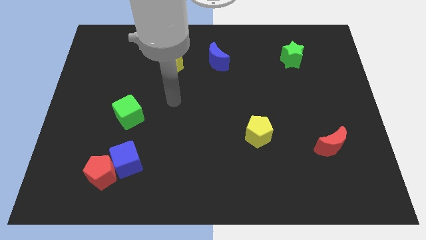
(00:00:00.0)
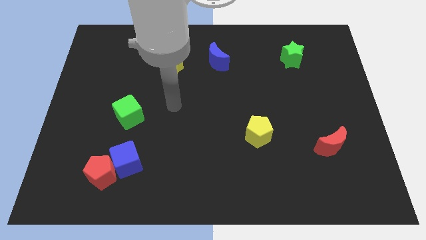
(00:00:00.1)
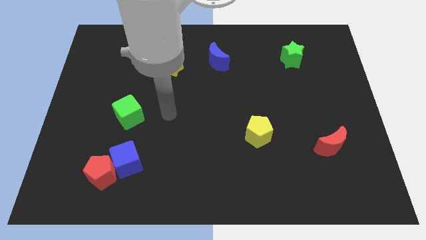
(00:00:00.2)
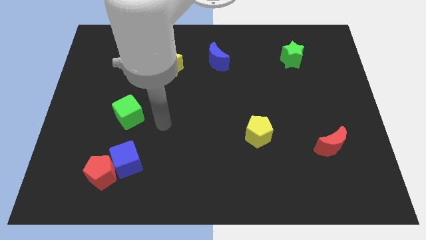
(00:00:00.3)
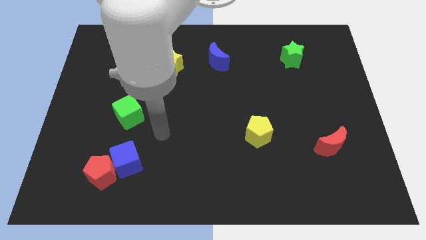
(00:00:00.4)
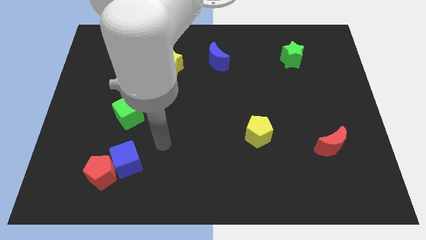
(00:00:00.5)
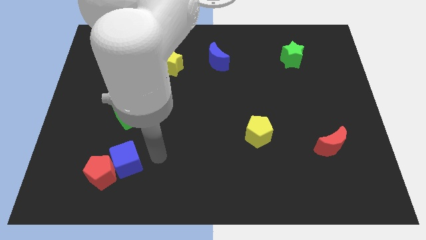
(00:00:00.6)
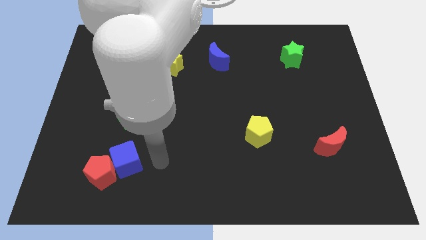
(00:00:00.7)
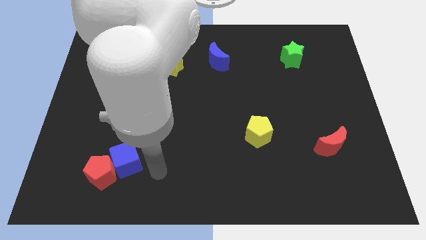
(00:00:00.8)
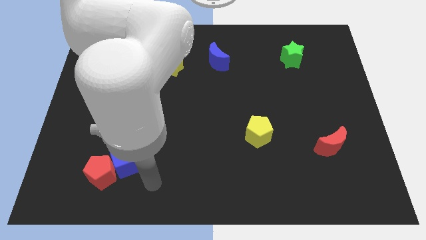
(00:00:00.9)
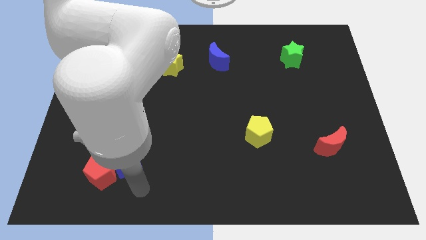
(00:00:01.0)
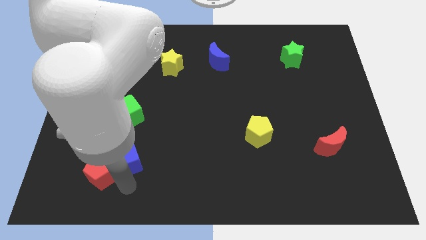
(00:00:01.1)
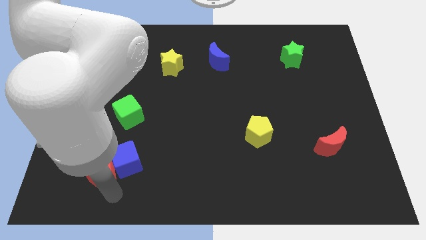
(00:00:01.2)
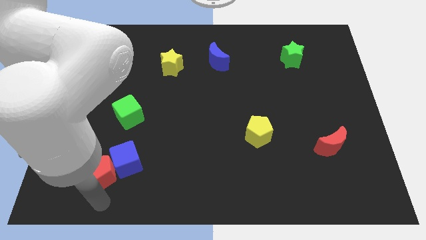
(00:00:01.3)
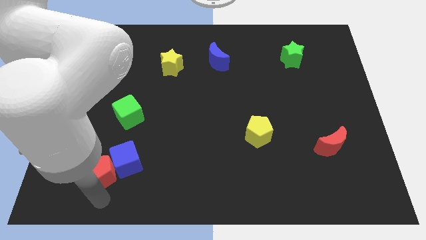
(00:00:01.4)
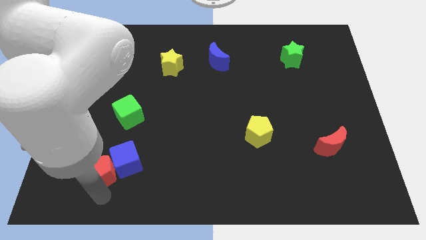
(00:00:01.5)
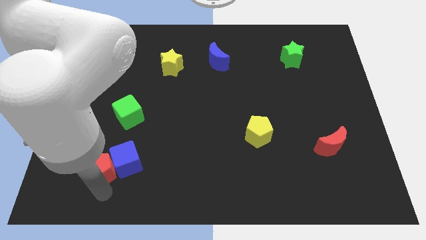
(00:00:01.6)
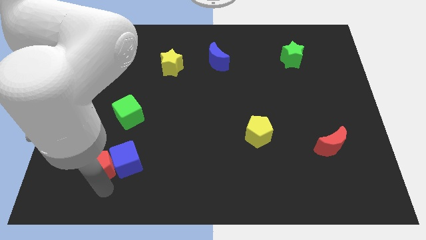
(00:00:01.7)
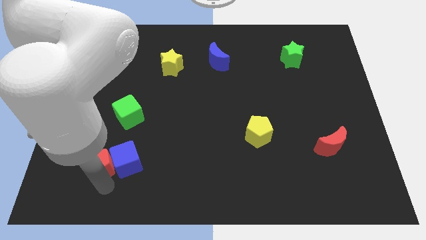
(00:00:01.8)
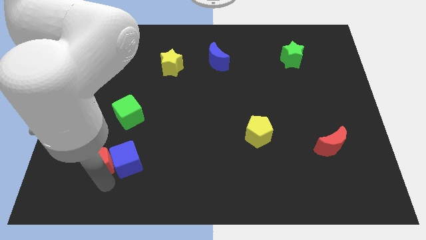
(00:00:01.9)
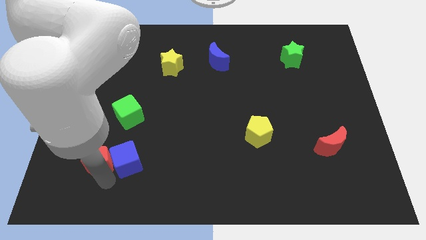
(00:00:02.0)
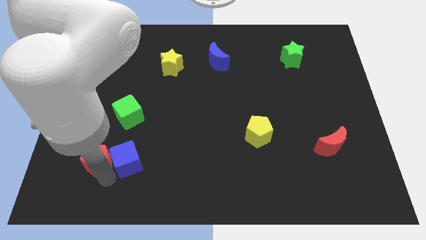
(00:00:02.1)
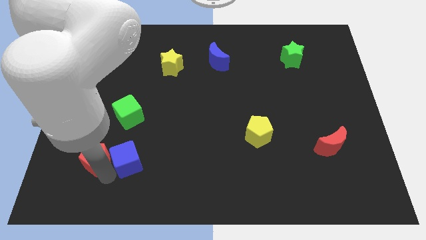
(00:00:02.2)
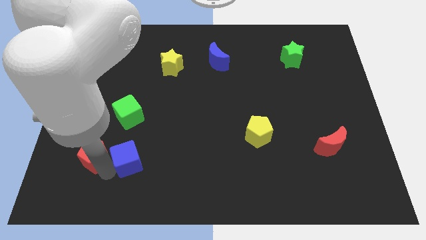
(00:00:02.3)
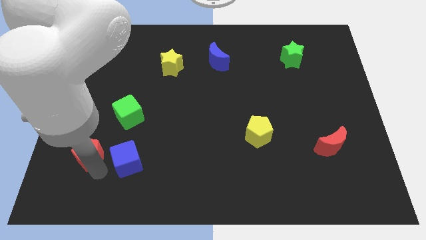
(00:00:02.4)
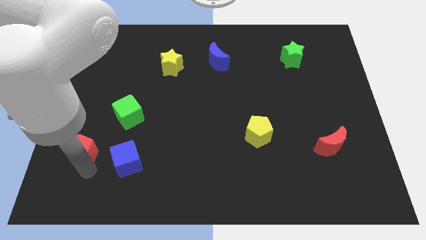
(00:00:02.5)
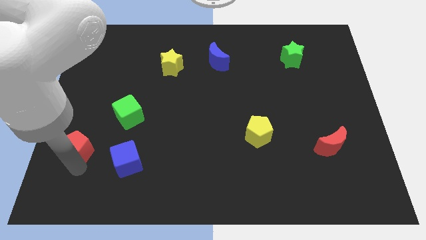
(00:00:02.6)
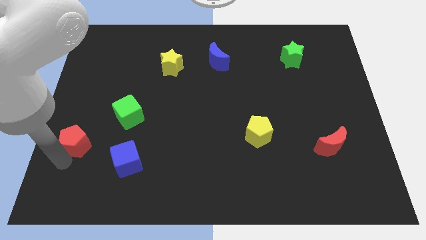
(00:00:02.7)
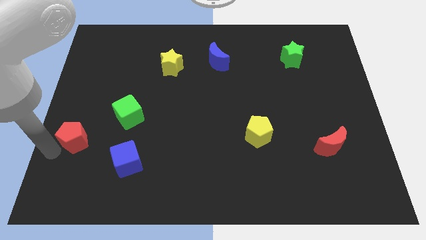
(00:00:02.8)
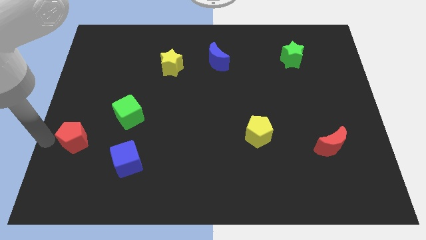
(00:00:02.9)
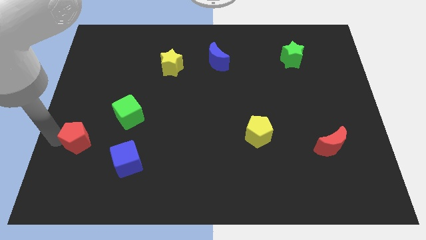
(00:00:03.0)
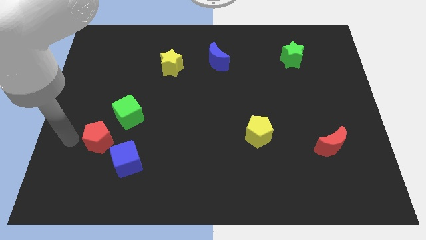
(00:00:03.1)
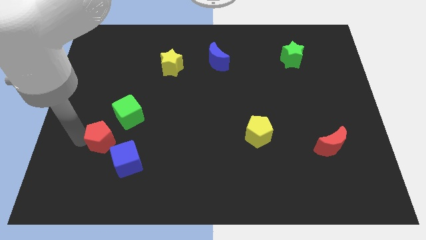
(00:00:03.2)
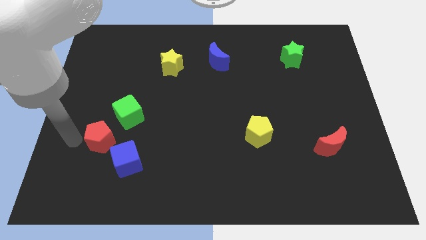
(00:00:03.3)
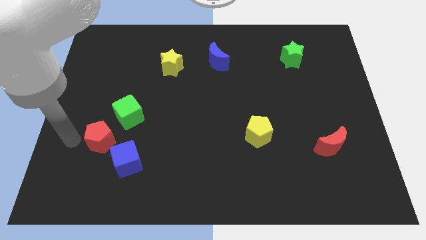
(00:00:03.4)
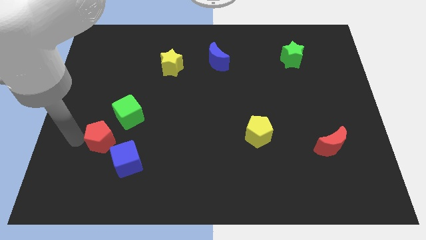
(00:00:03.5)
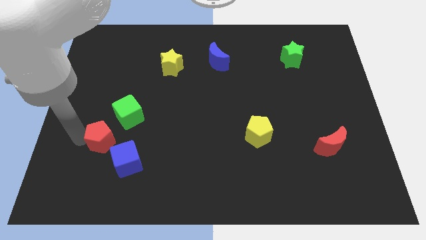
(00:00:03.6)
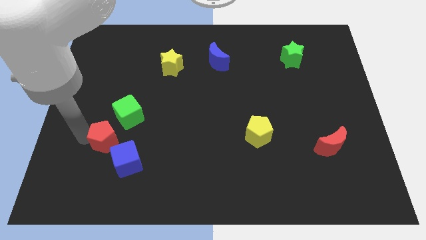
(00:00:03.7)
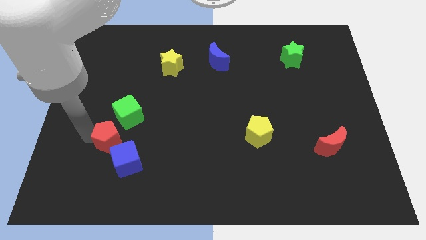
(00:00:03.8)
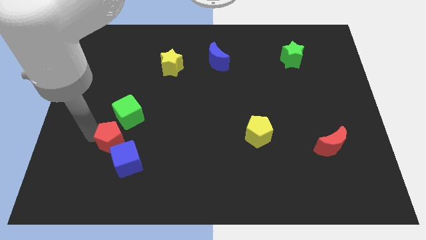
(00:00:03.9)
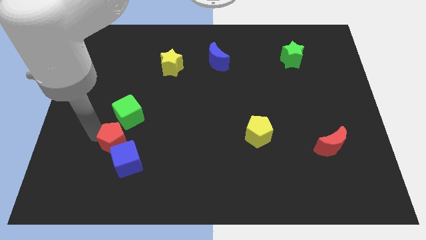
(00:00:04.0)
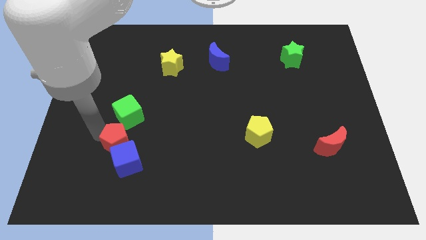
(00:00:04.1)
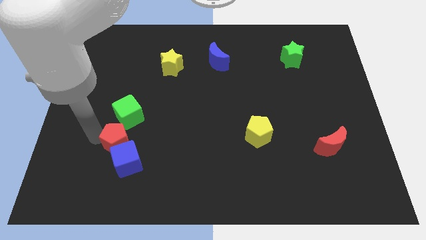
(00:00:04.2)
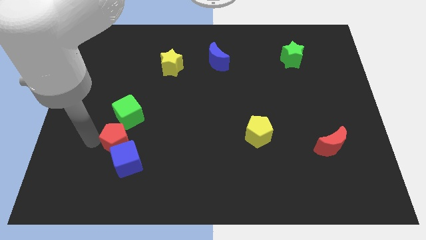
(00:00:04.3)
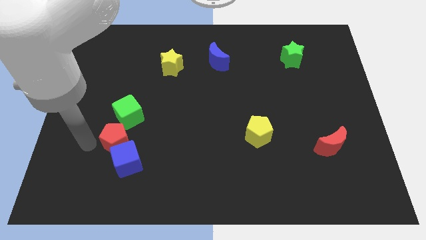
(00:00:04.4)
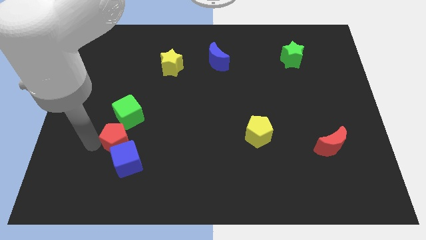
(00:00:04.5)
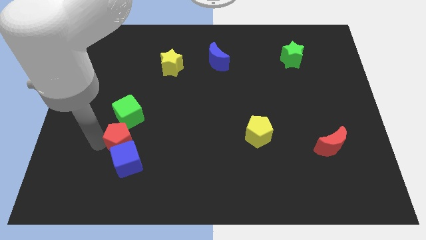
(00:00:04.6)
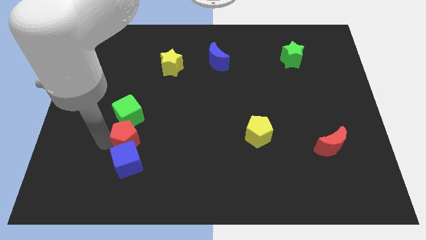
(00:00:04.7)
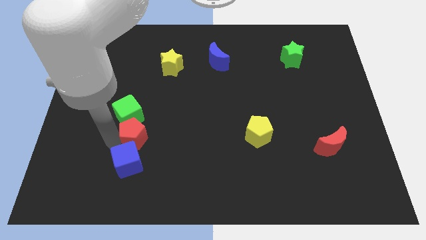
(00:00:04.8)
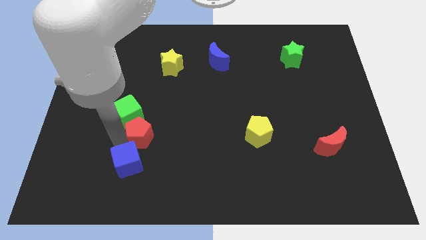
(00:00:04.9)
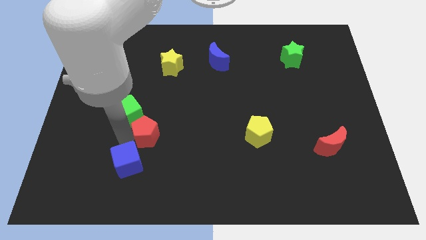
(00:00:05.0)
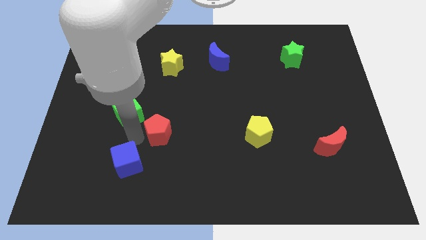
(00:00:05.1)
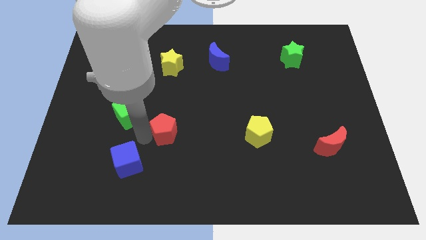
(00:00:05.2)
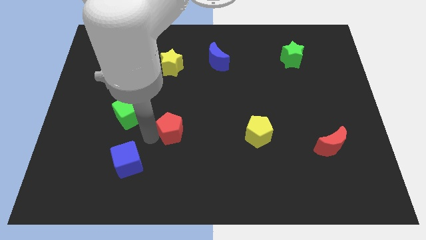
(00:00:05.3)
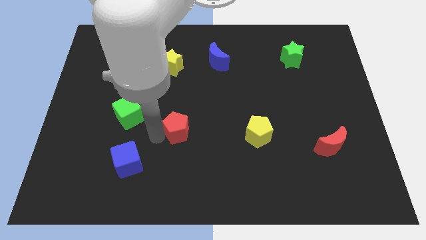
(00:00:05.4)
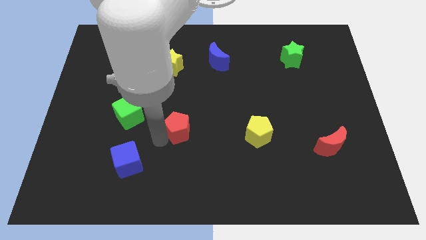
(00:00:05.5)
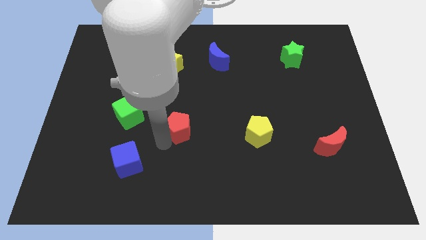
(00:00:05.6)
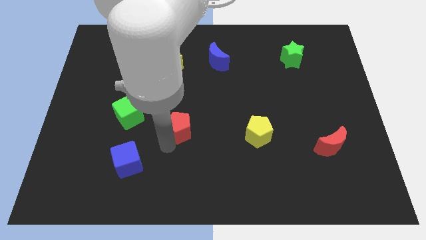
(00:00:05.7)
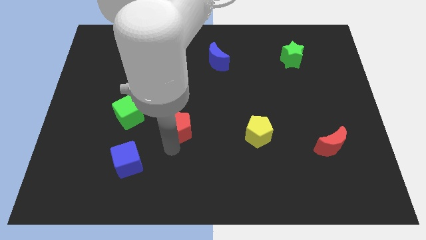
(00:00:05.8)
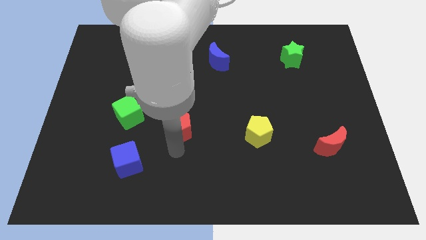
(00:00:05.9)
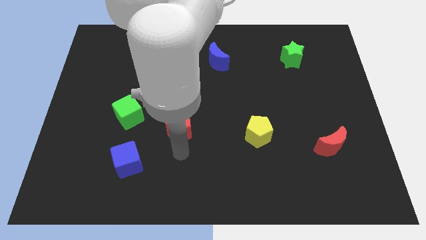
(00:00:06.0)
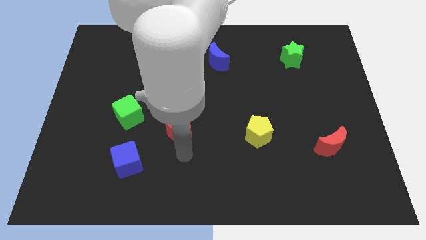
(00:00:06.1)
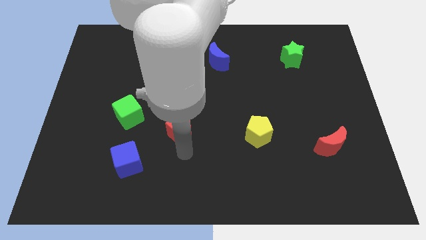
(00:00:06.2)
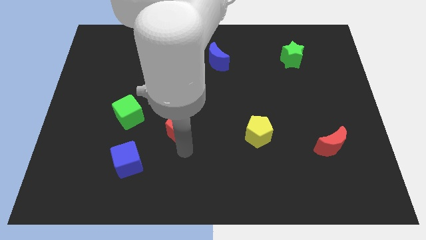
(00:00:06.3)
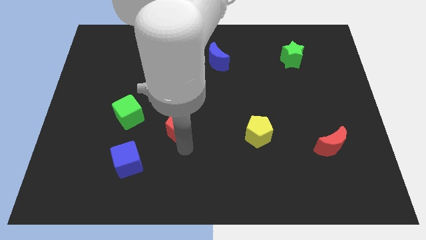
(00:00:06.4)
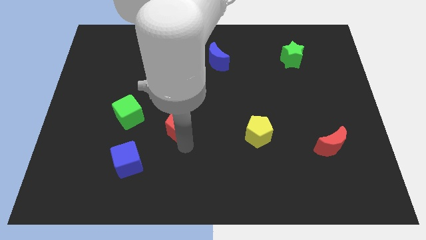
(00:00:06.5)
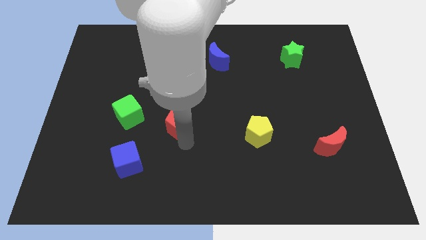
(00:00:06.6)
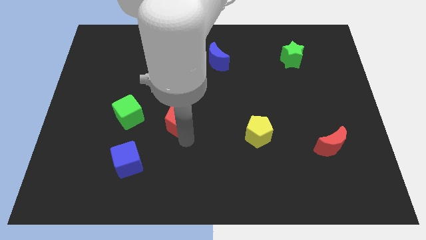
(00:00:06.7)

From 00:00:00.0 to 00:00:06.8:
move the red pentagon up and then to the right

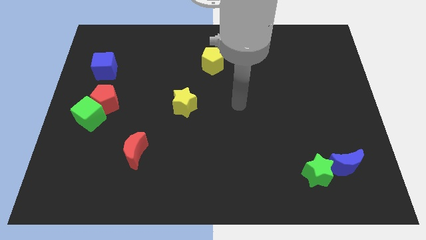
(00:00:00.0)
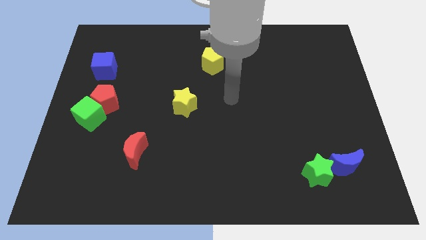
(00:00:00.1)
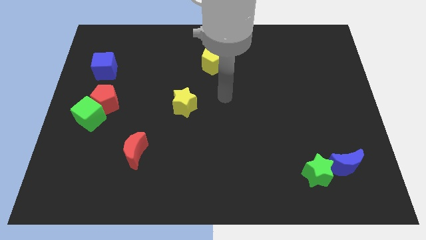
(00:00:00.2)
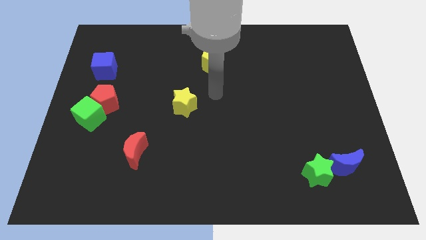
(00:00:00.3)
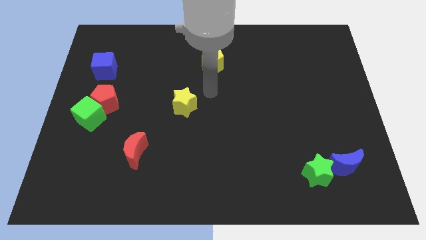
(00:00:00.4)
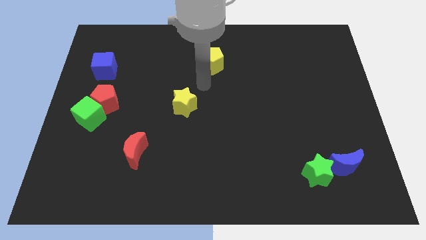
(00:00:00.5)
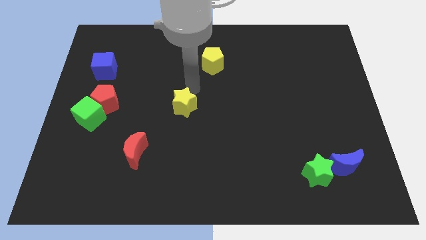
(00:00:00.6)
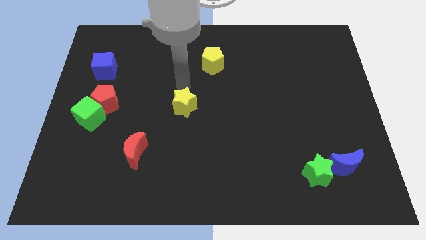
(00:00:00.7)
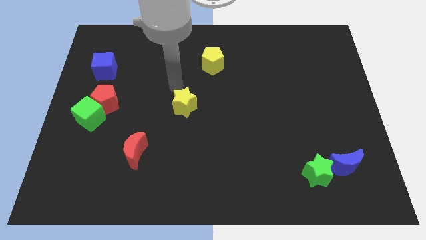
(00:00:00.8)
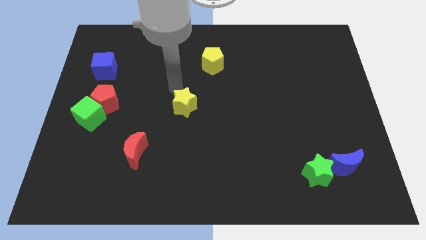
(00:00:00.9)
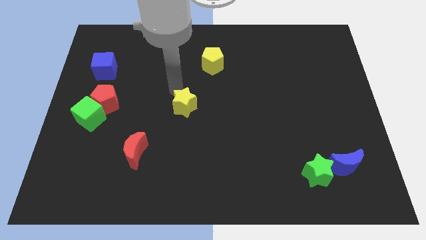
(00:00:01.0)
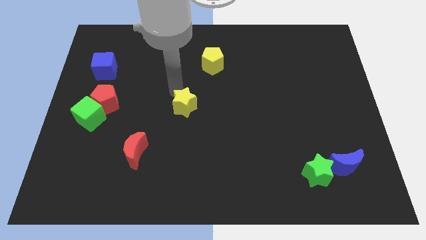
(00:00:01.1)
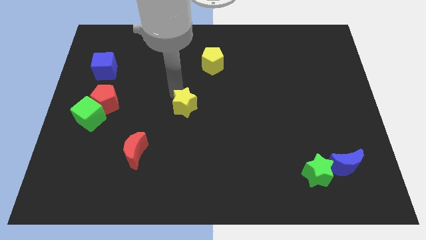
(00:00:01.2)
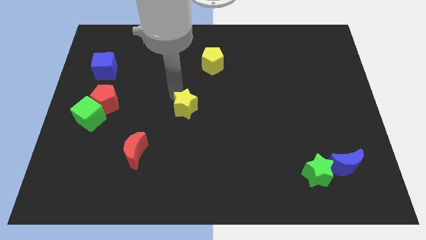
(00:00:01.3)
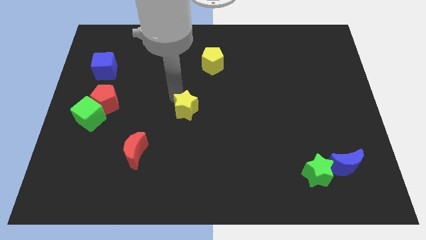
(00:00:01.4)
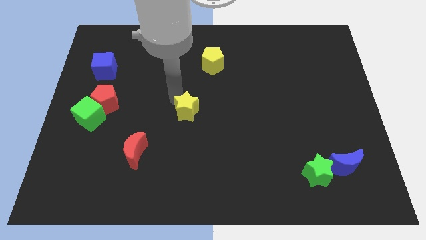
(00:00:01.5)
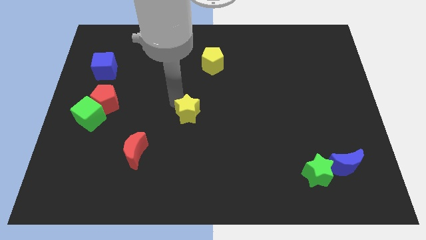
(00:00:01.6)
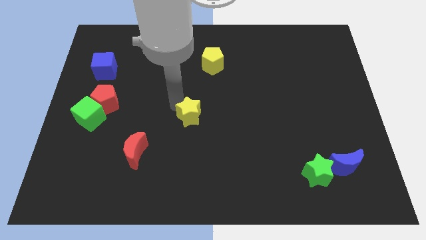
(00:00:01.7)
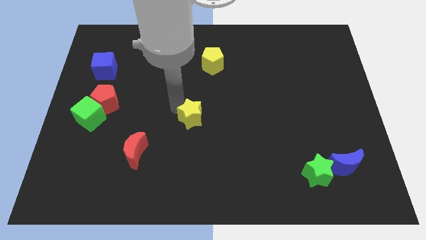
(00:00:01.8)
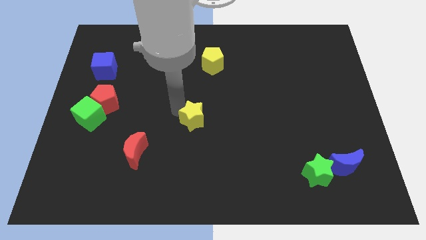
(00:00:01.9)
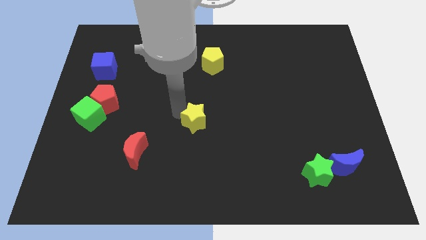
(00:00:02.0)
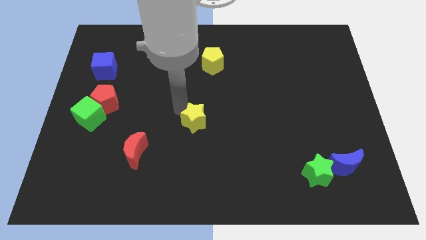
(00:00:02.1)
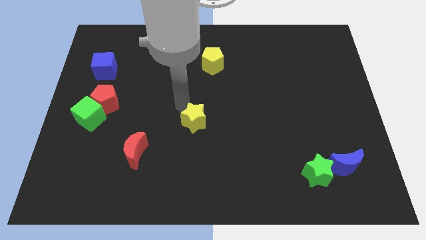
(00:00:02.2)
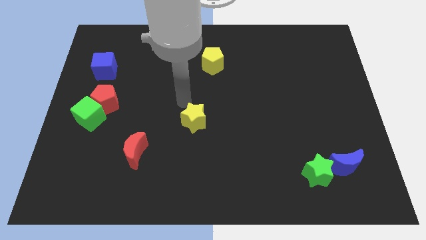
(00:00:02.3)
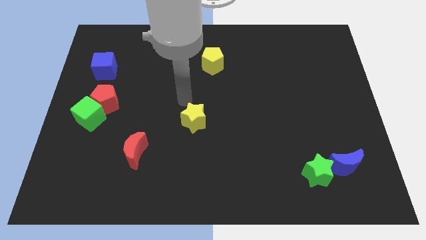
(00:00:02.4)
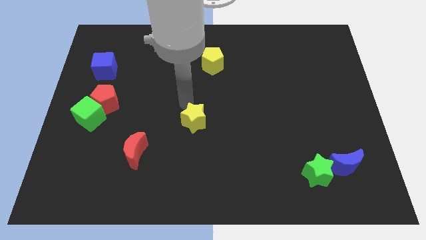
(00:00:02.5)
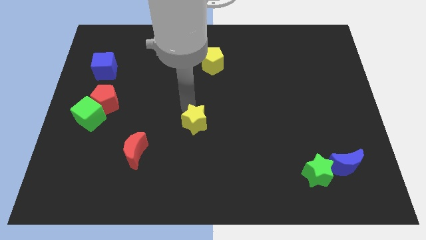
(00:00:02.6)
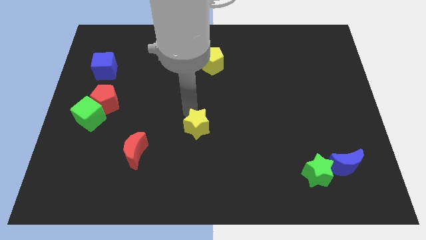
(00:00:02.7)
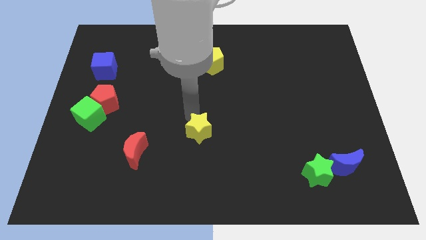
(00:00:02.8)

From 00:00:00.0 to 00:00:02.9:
slightly slide the yellow star down and right
